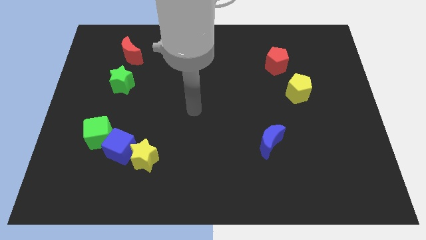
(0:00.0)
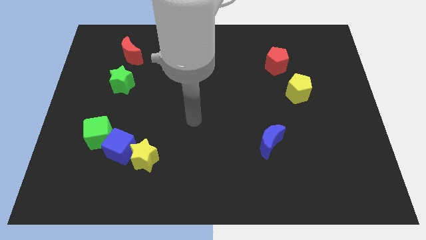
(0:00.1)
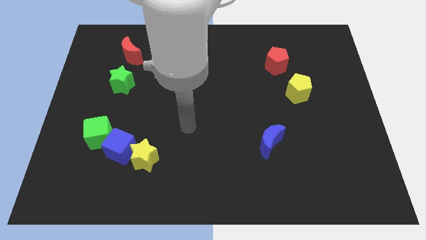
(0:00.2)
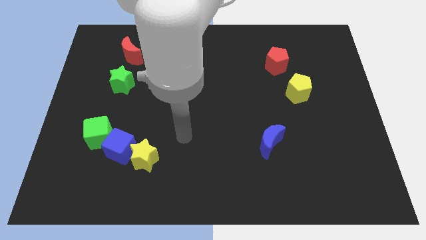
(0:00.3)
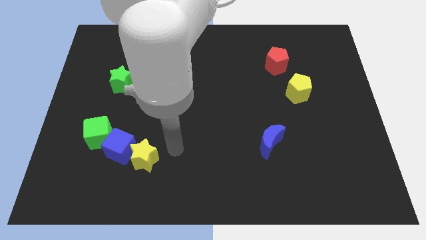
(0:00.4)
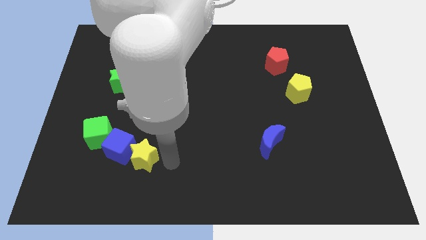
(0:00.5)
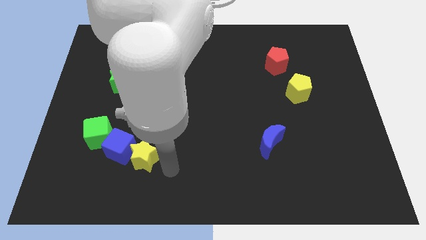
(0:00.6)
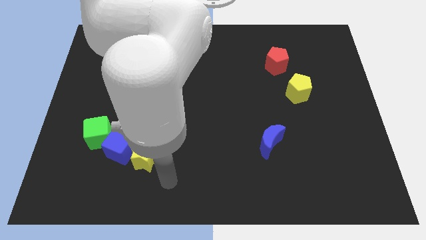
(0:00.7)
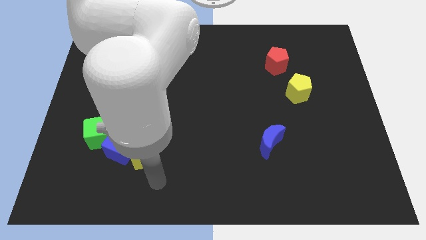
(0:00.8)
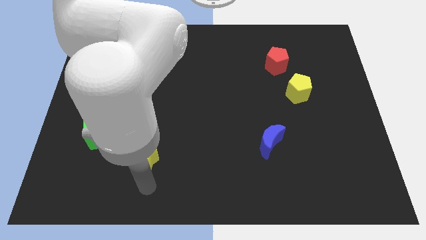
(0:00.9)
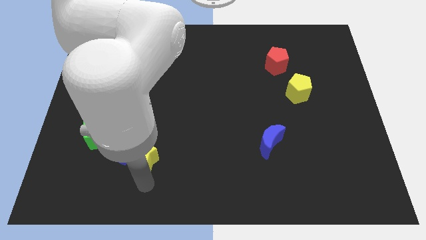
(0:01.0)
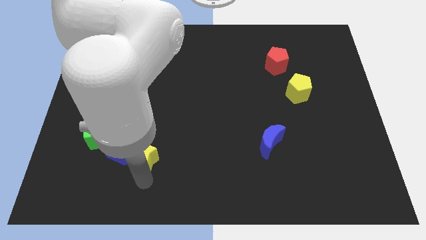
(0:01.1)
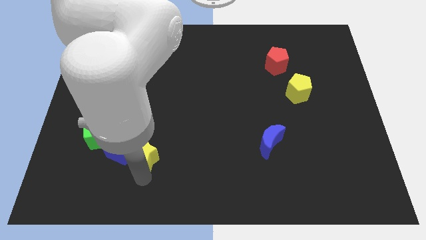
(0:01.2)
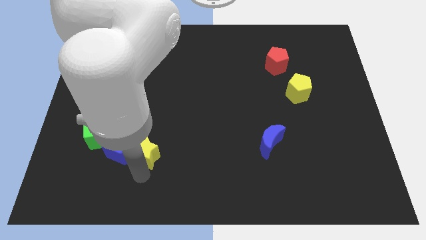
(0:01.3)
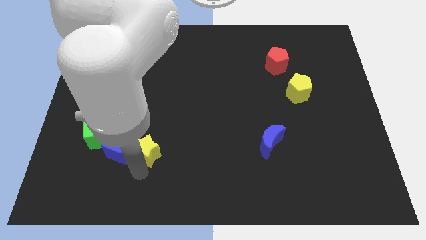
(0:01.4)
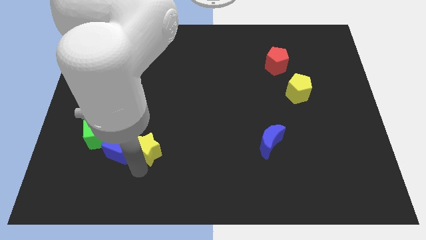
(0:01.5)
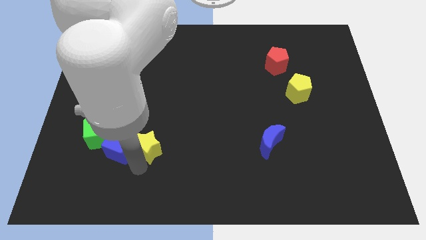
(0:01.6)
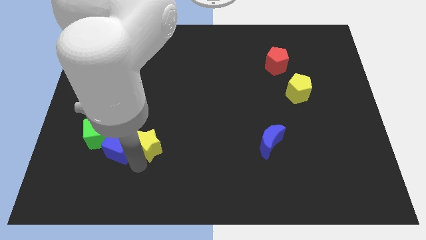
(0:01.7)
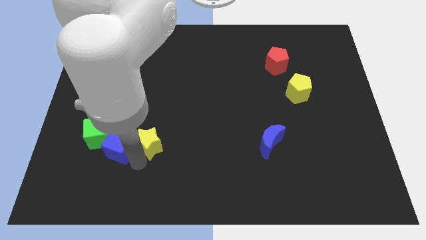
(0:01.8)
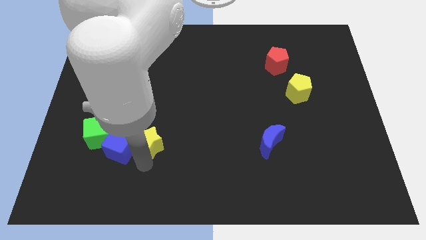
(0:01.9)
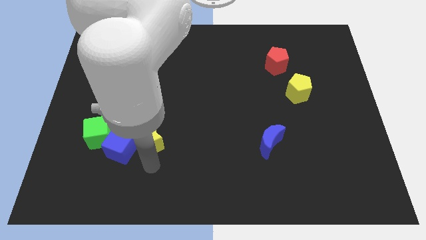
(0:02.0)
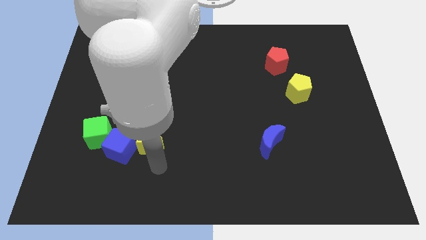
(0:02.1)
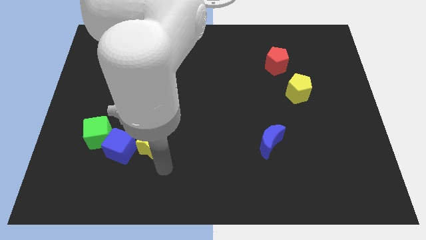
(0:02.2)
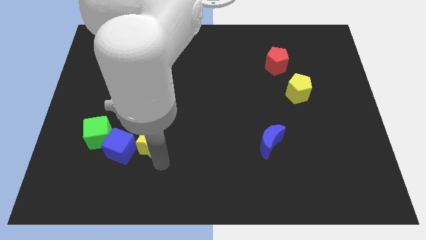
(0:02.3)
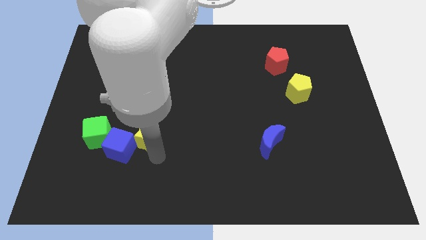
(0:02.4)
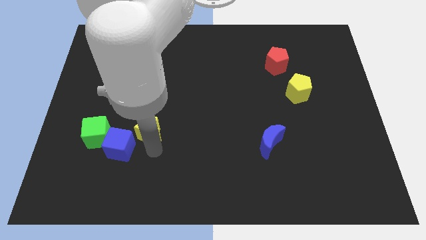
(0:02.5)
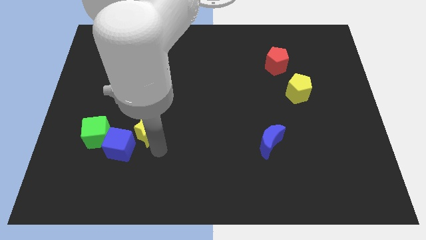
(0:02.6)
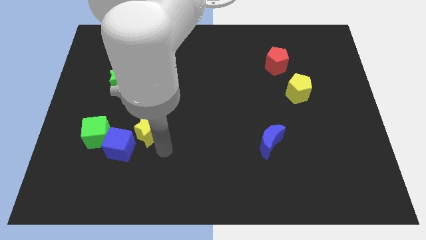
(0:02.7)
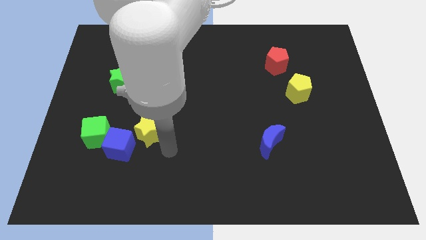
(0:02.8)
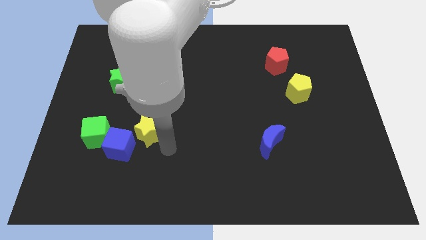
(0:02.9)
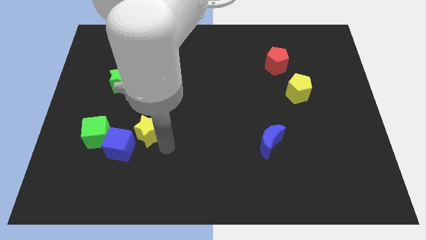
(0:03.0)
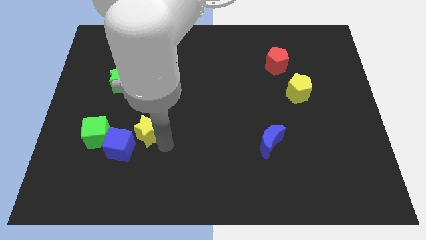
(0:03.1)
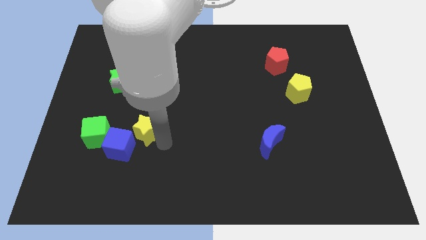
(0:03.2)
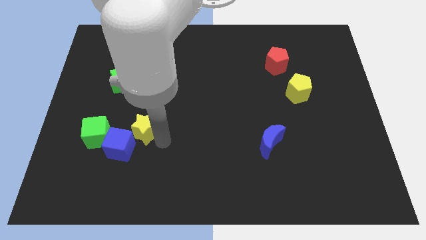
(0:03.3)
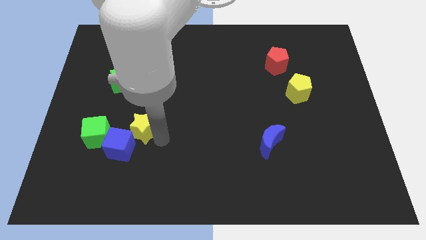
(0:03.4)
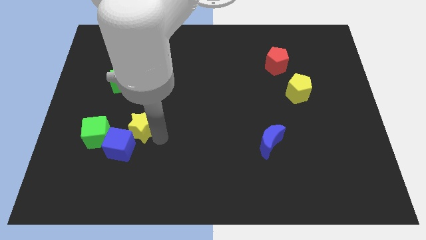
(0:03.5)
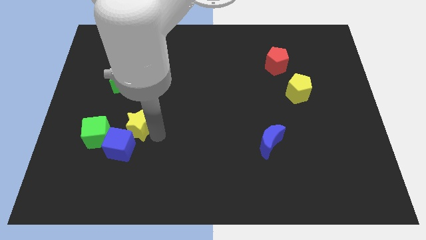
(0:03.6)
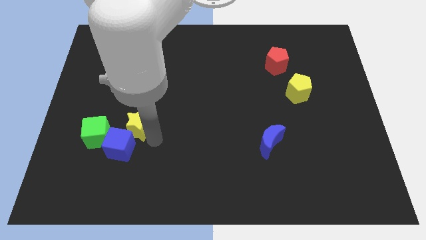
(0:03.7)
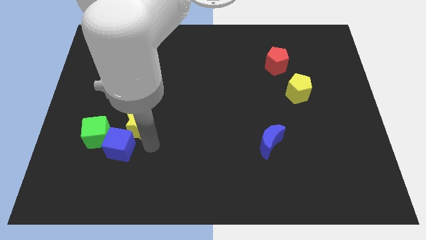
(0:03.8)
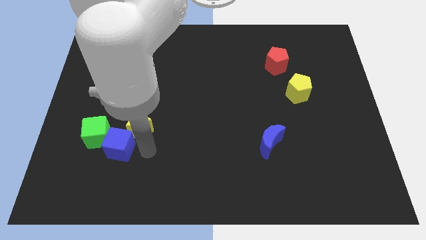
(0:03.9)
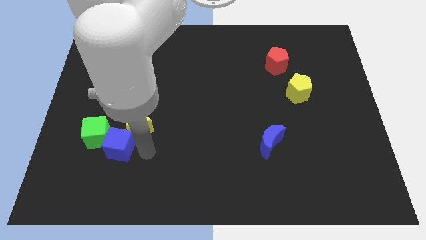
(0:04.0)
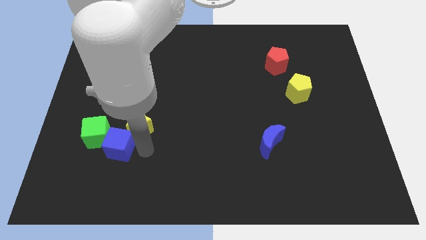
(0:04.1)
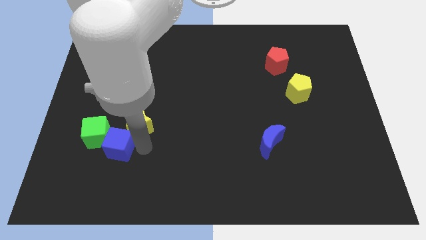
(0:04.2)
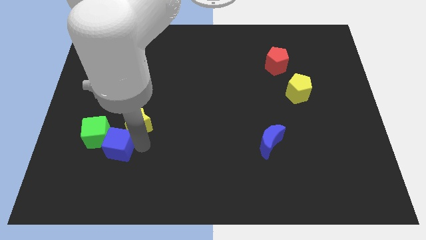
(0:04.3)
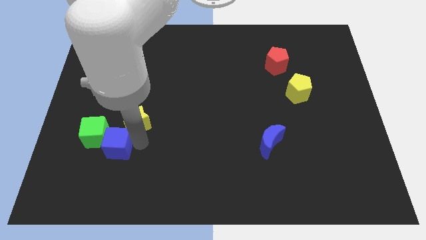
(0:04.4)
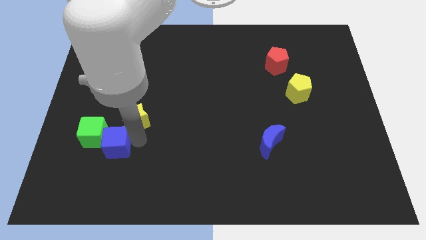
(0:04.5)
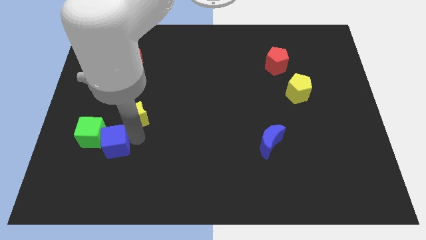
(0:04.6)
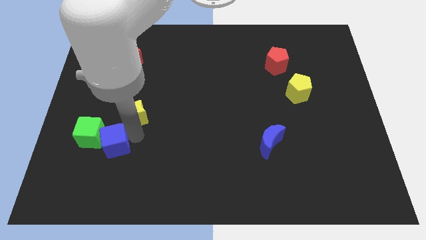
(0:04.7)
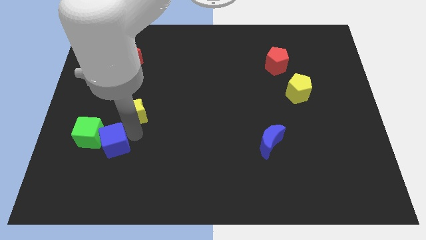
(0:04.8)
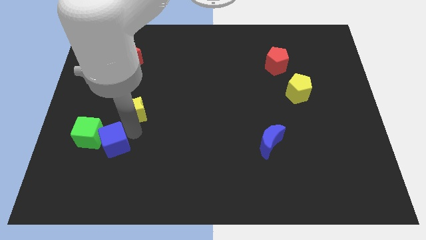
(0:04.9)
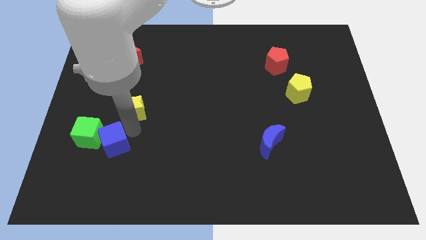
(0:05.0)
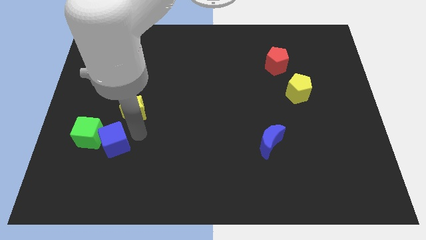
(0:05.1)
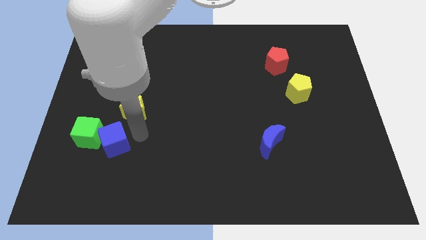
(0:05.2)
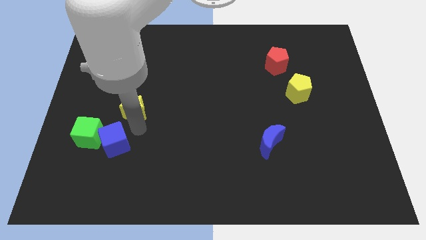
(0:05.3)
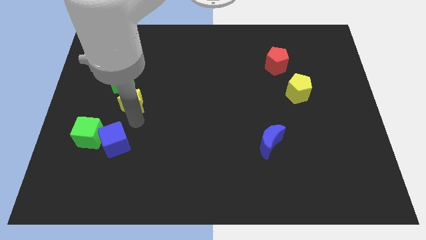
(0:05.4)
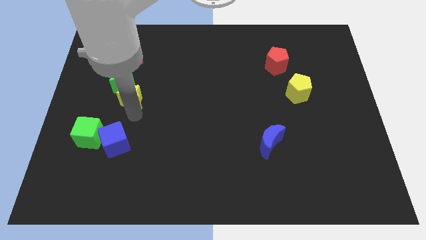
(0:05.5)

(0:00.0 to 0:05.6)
put the yellow star to the bottom side of the red moon

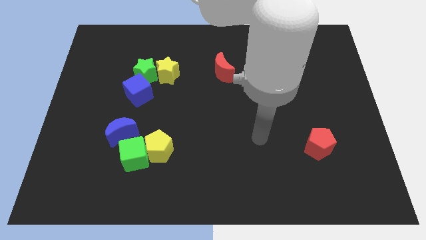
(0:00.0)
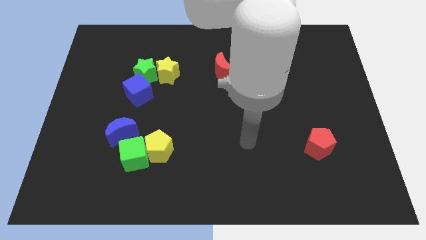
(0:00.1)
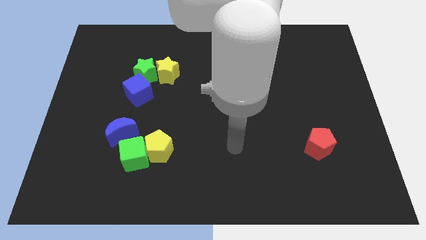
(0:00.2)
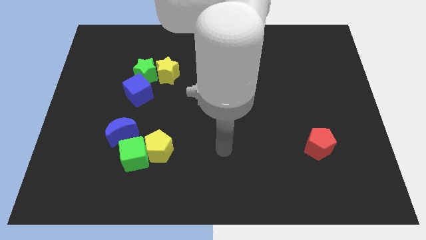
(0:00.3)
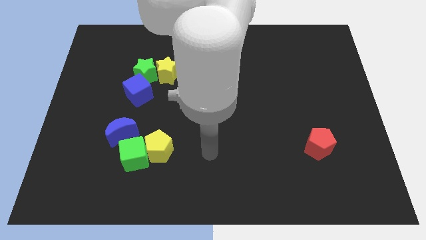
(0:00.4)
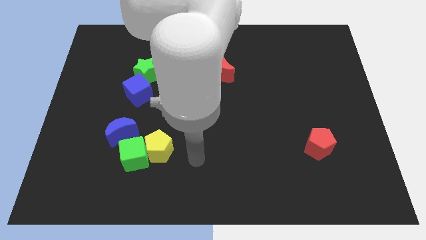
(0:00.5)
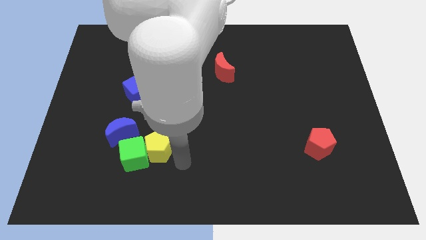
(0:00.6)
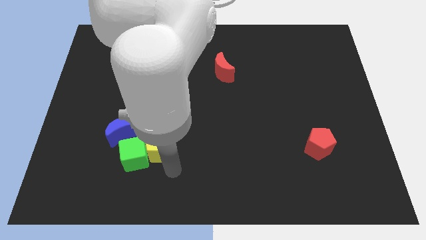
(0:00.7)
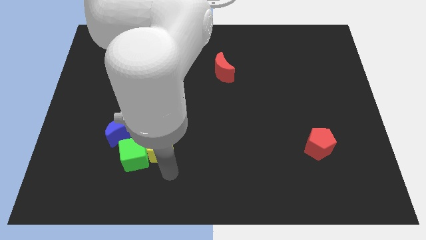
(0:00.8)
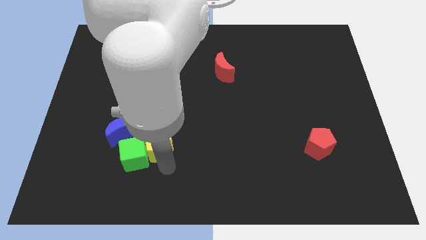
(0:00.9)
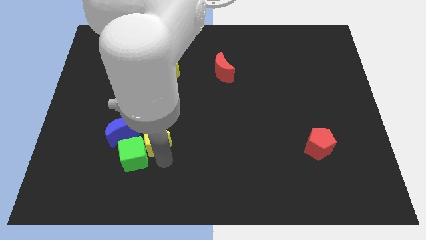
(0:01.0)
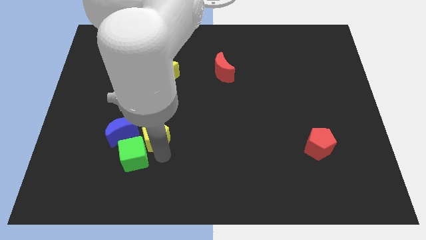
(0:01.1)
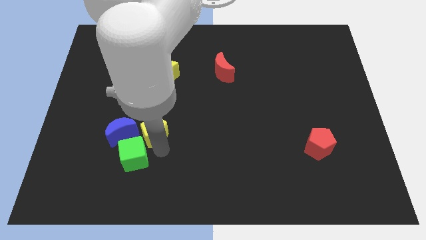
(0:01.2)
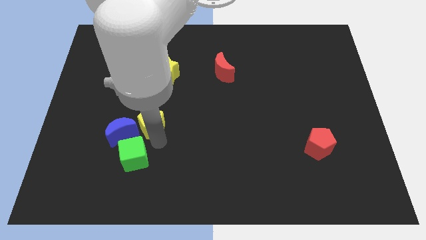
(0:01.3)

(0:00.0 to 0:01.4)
push the yellow pentagon below the green star
